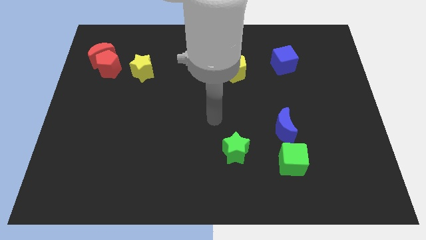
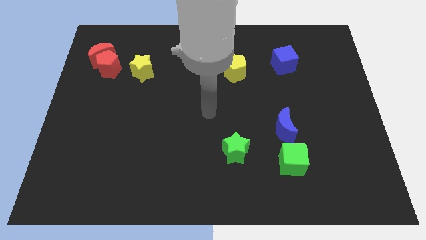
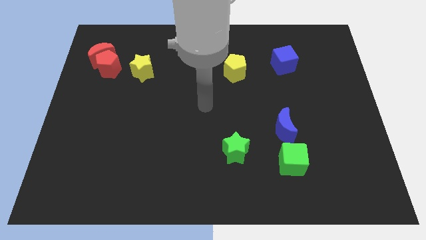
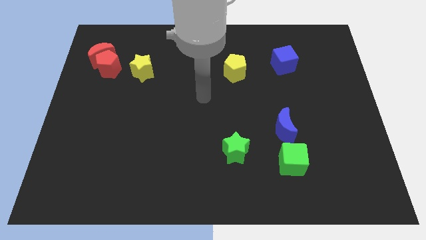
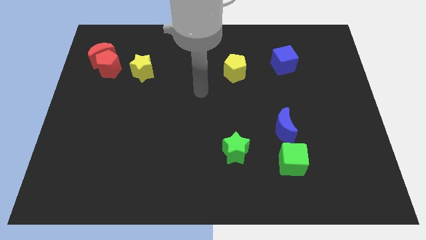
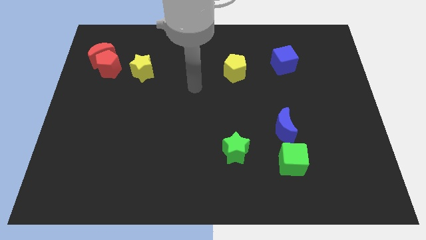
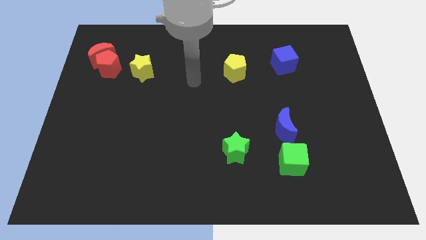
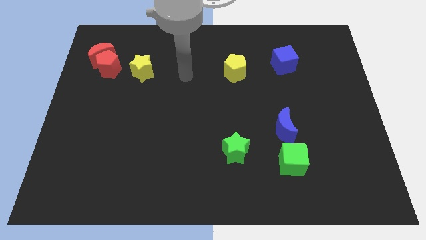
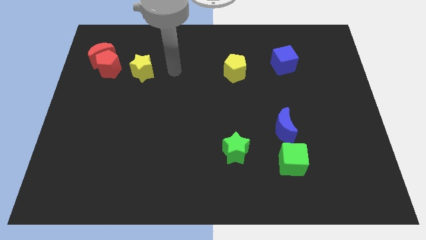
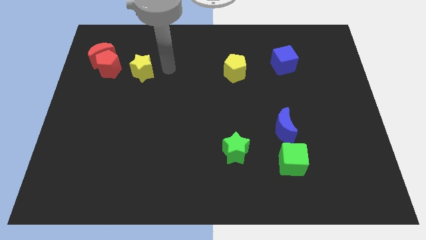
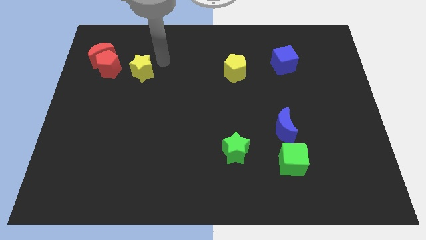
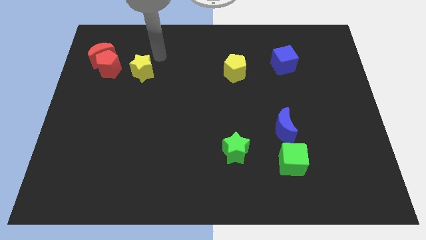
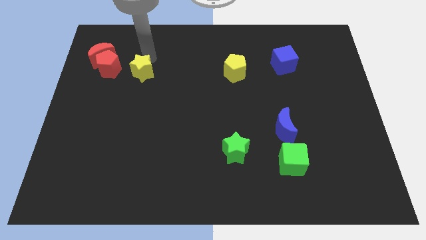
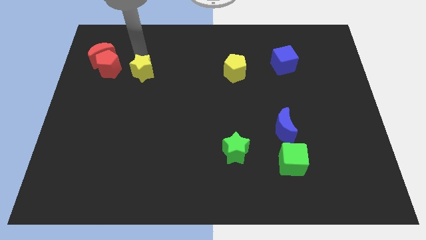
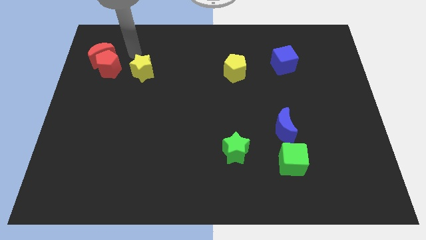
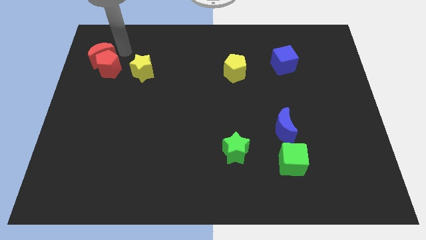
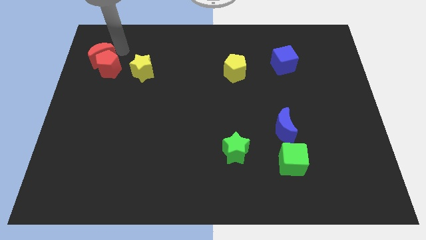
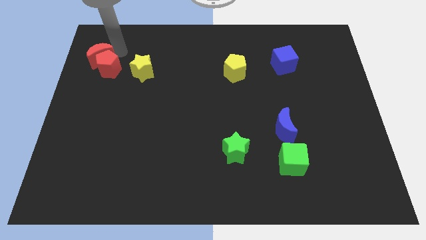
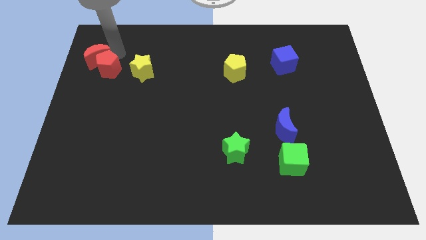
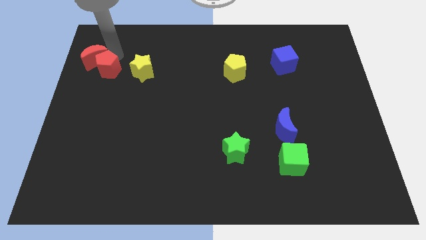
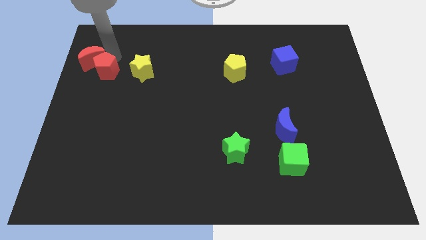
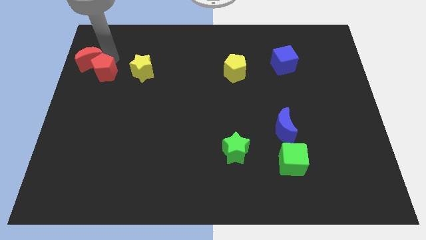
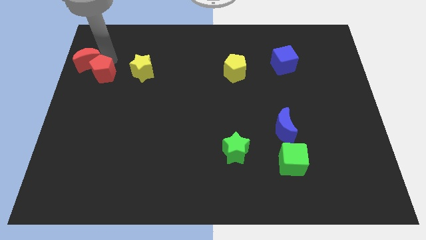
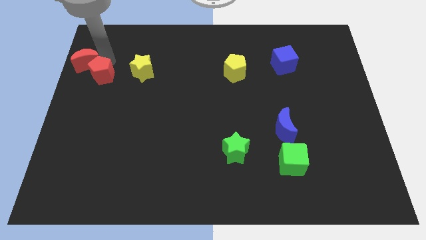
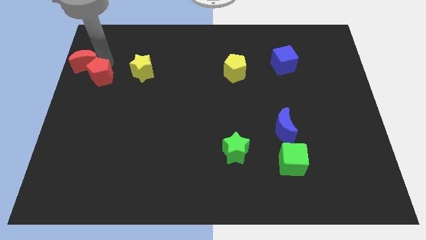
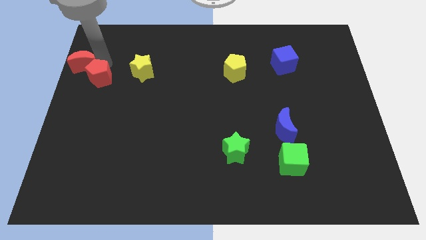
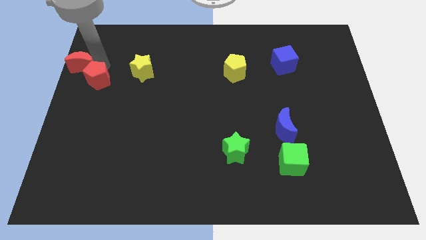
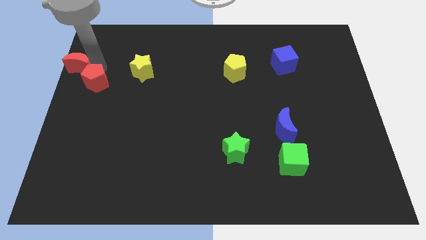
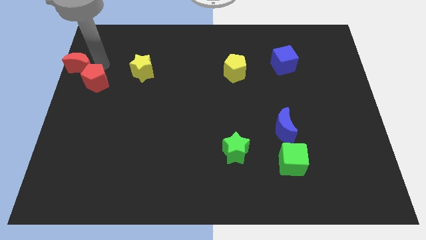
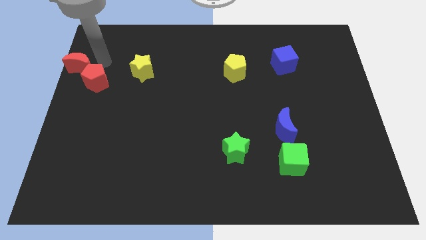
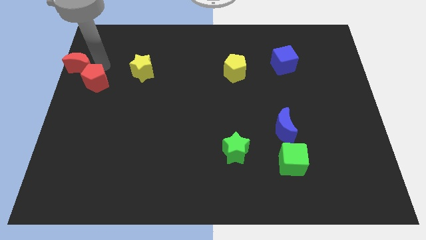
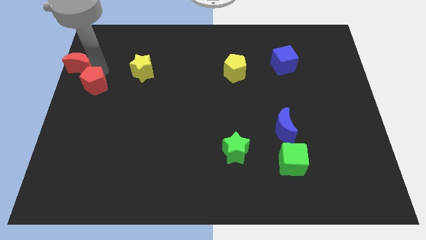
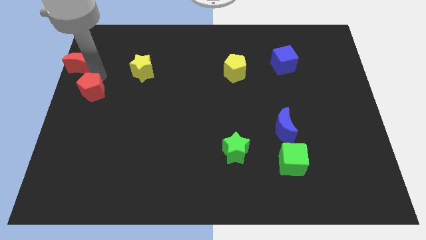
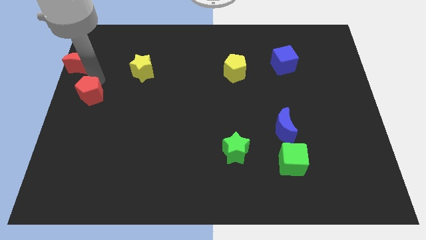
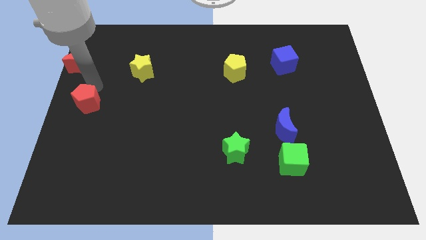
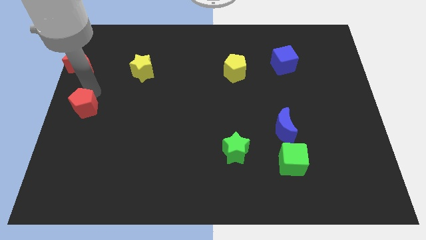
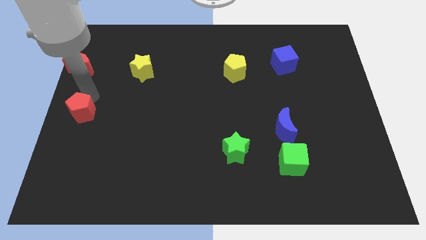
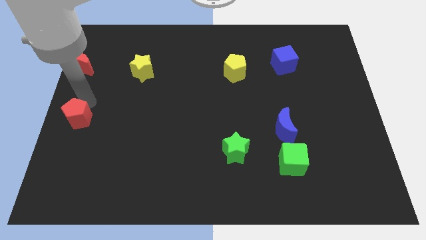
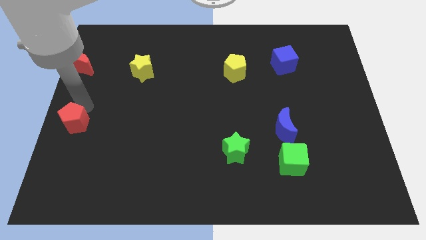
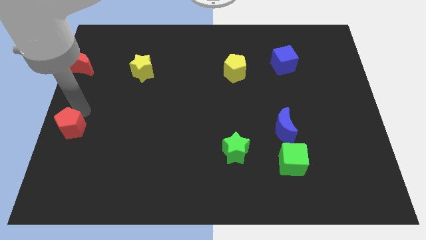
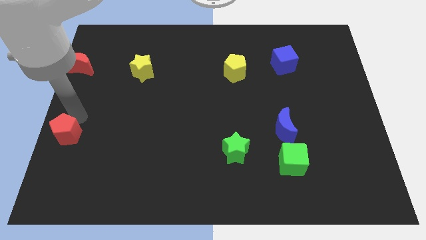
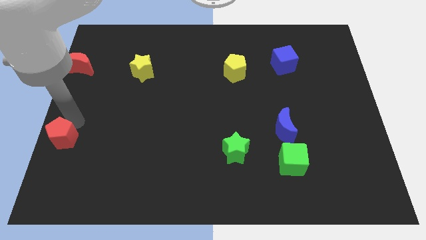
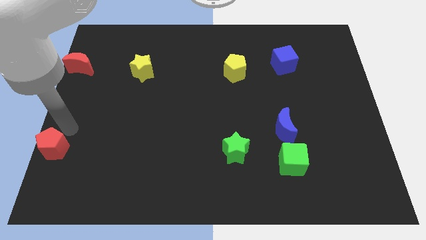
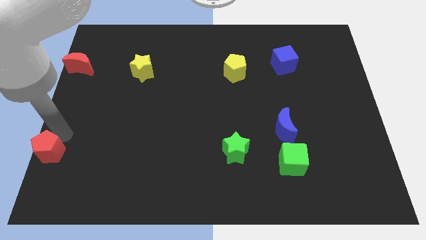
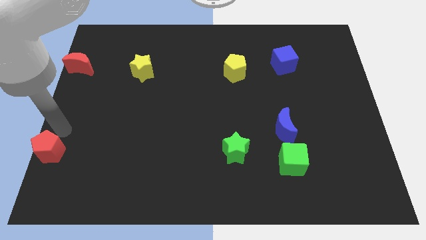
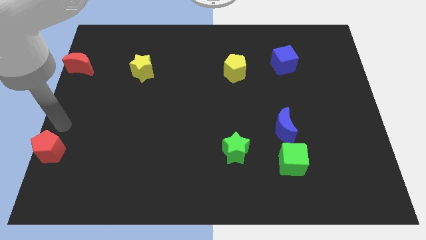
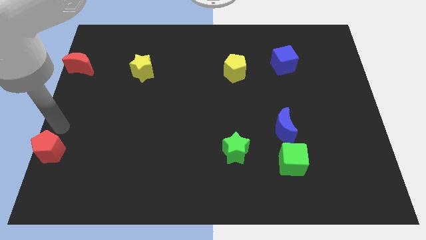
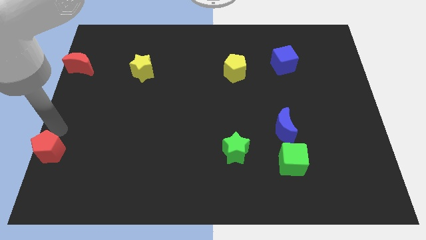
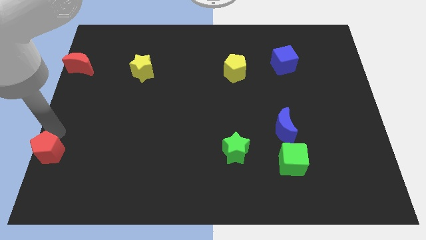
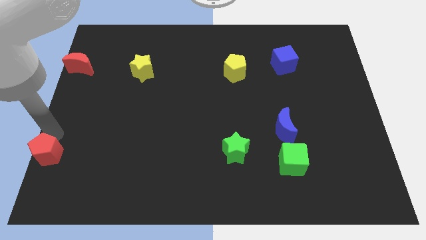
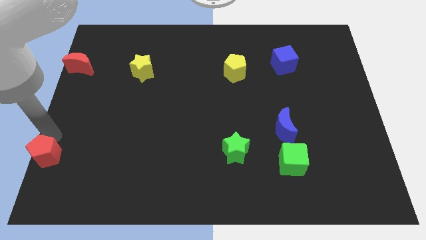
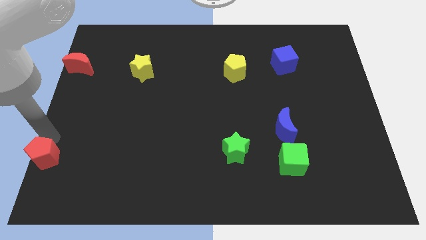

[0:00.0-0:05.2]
slide the red pentagon to the bottom left

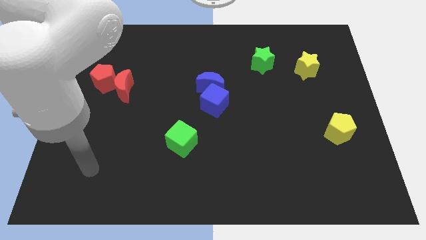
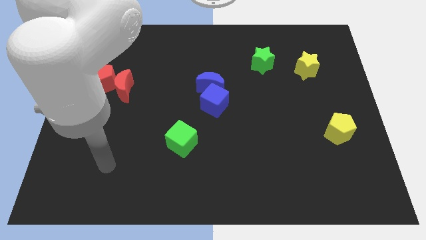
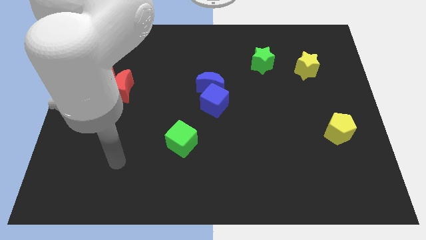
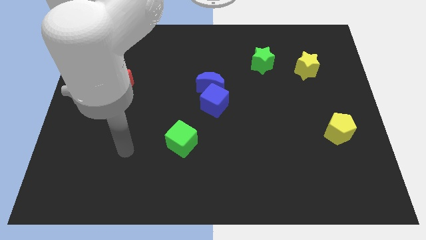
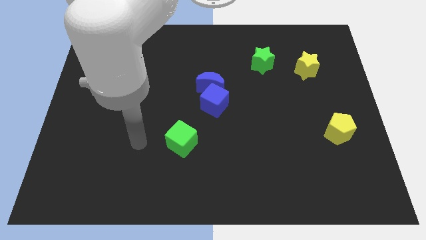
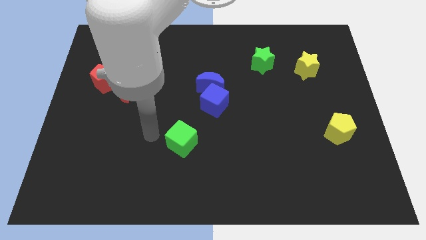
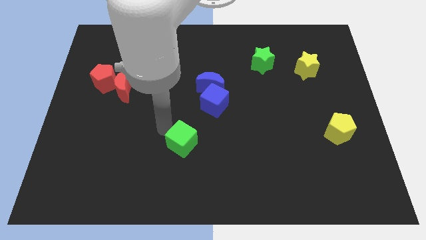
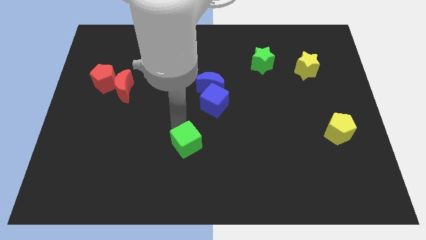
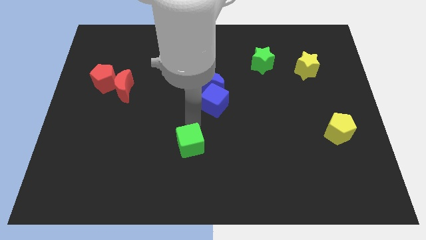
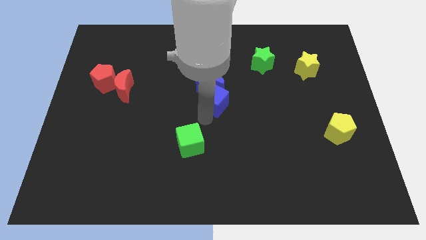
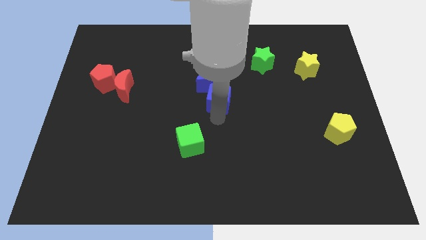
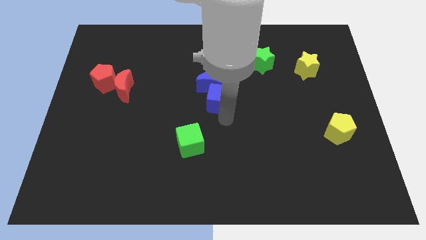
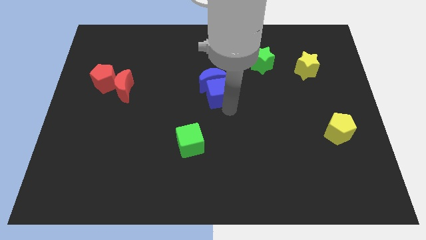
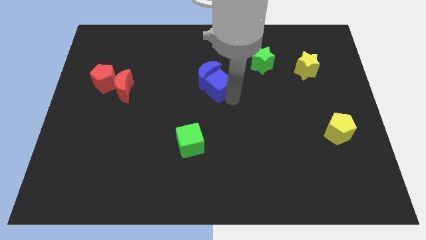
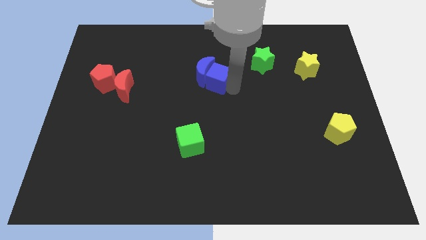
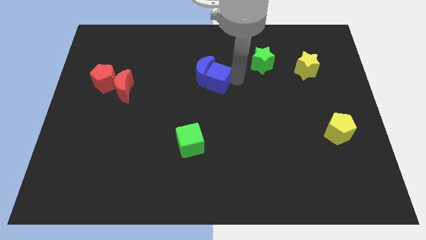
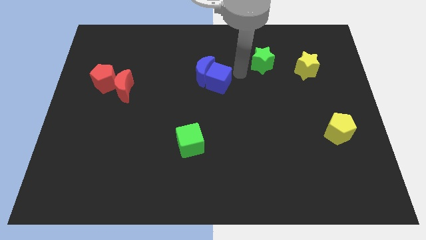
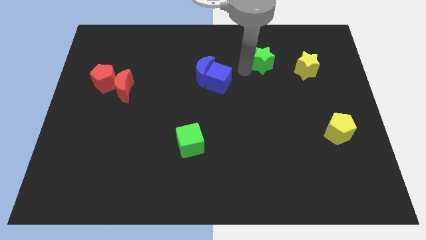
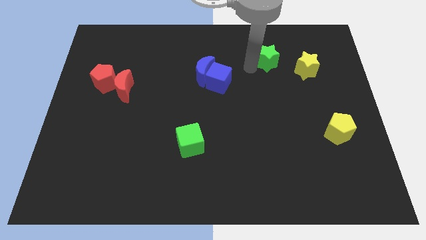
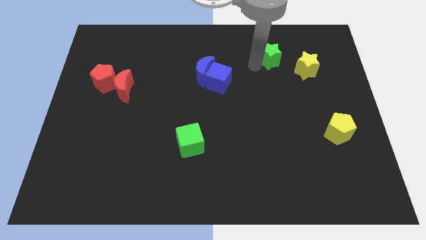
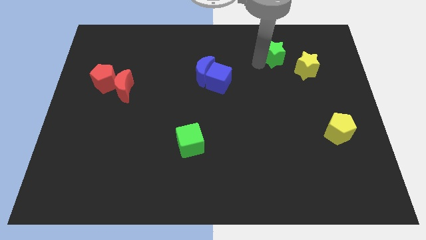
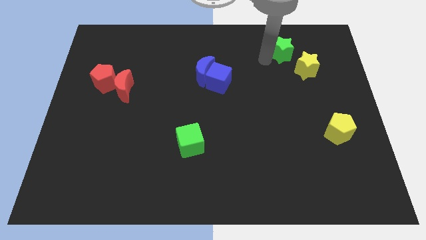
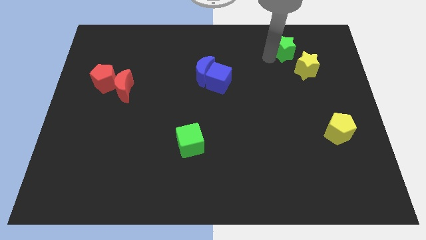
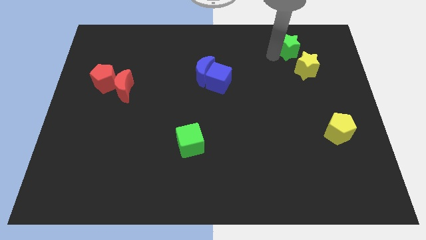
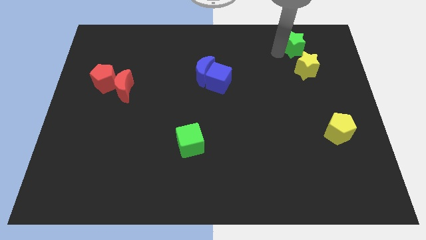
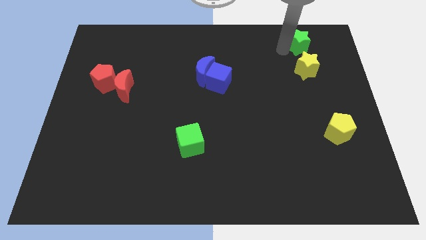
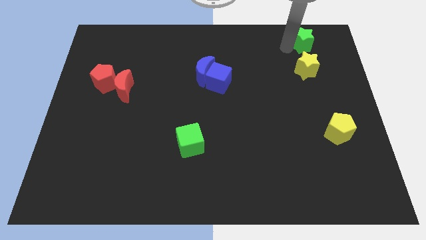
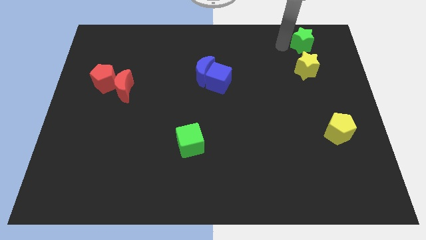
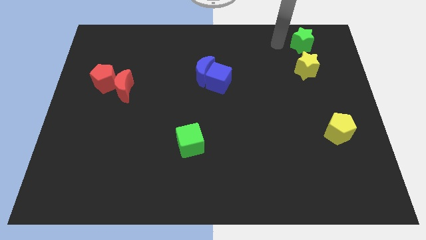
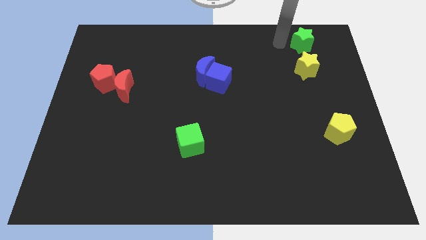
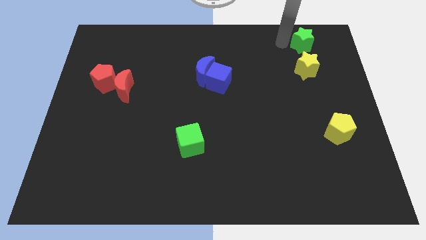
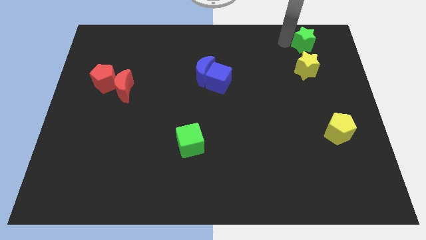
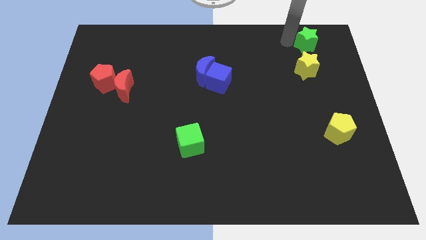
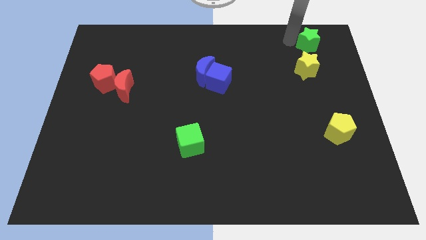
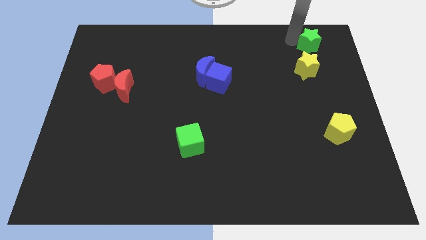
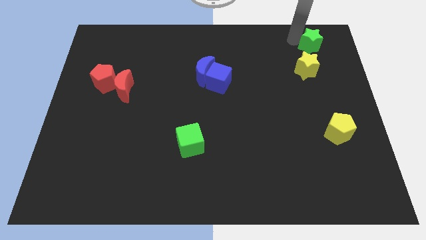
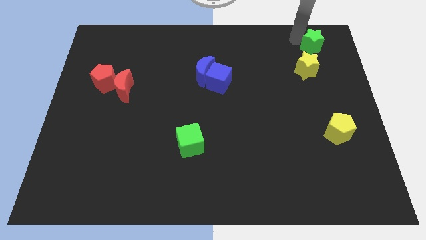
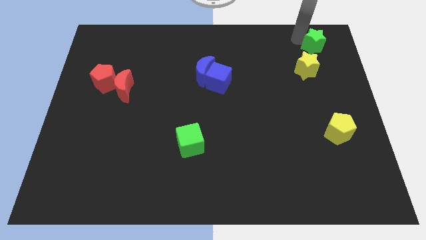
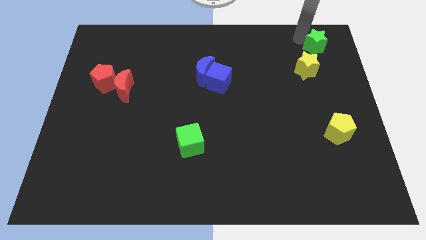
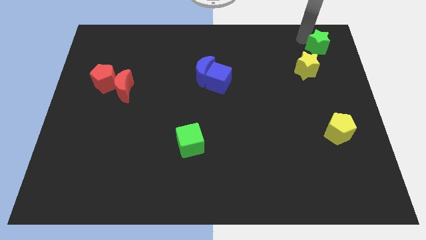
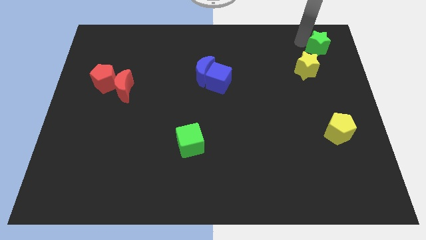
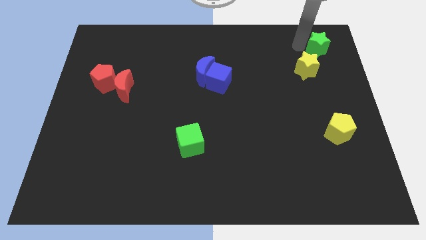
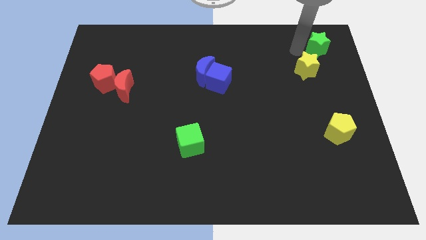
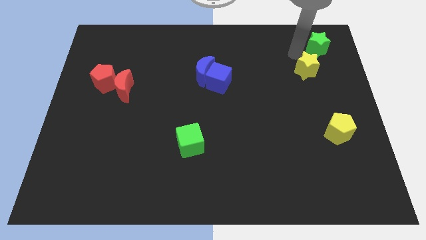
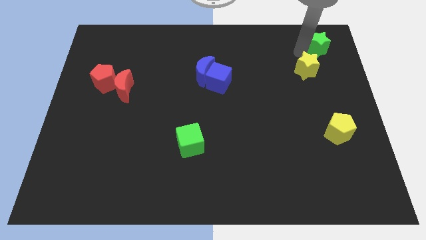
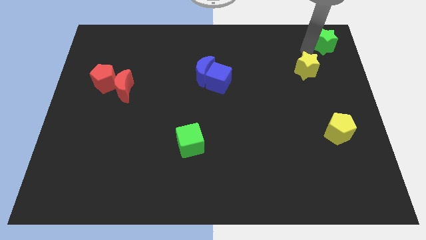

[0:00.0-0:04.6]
put the green star to the top right corner
